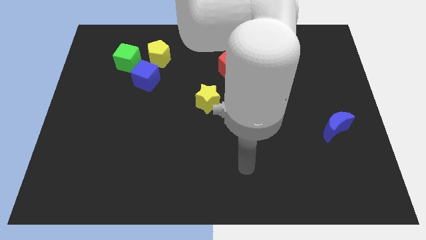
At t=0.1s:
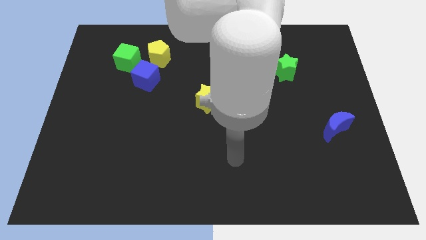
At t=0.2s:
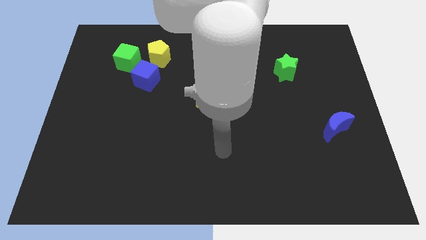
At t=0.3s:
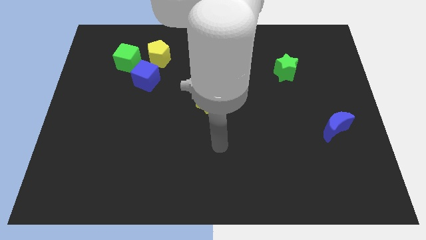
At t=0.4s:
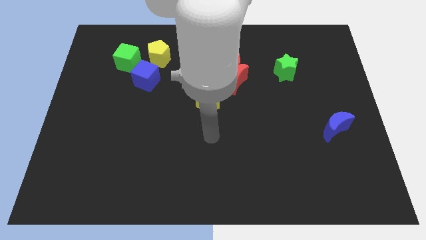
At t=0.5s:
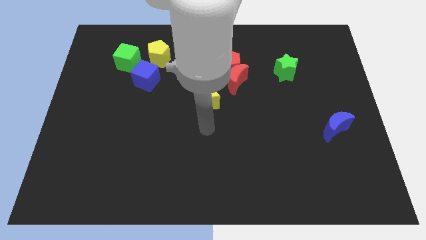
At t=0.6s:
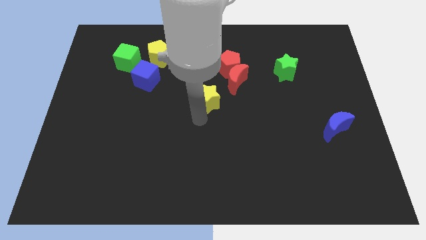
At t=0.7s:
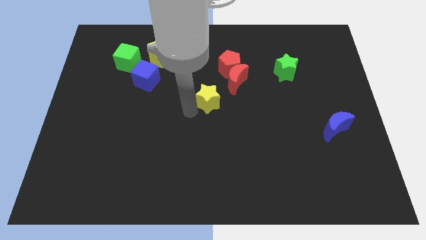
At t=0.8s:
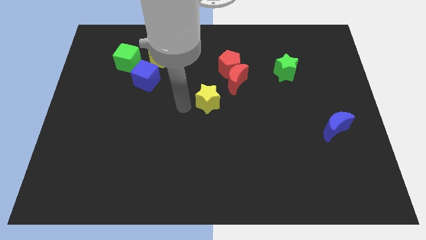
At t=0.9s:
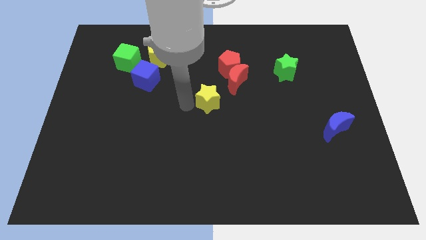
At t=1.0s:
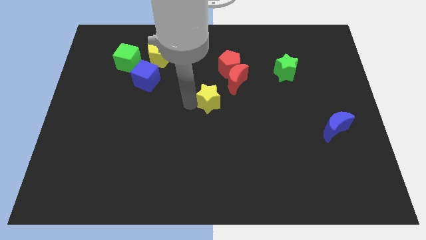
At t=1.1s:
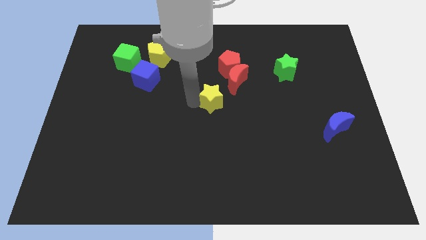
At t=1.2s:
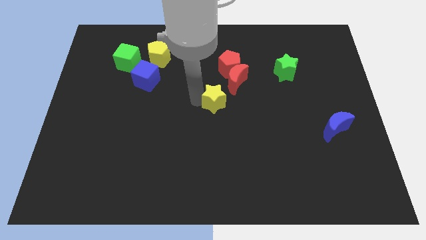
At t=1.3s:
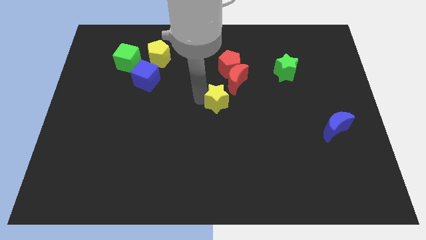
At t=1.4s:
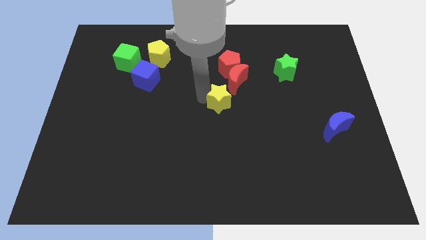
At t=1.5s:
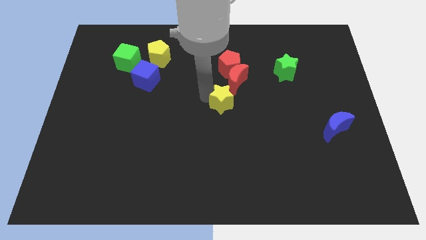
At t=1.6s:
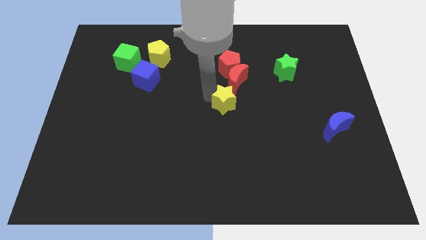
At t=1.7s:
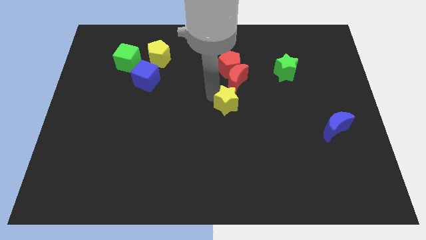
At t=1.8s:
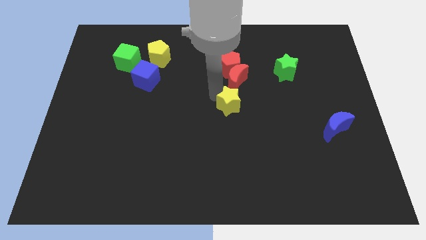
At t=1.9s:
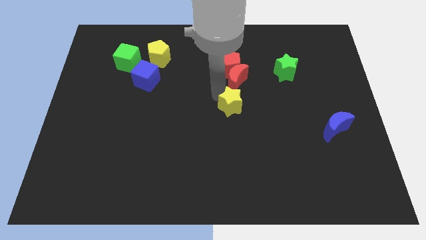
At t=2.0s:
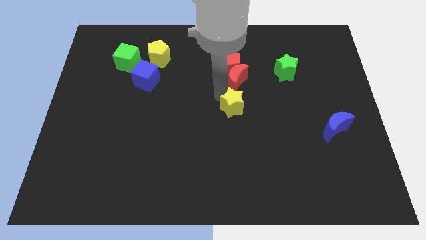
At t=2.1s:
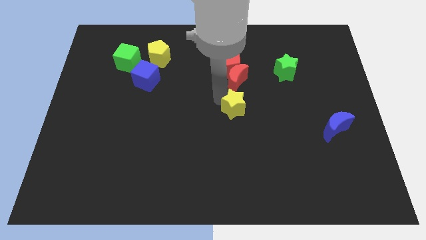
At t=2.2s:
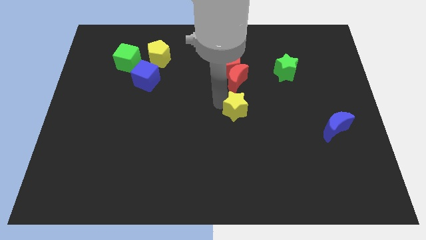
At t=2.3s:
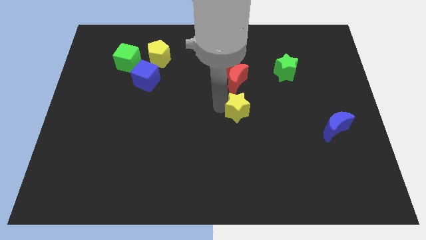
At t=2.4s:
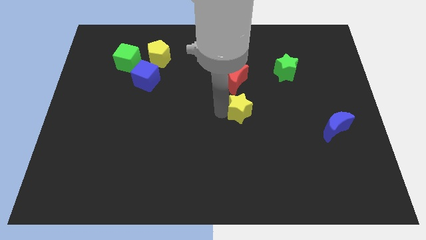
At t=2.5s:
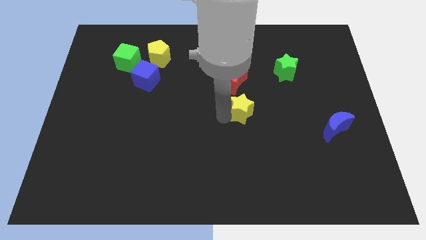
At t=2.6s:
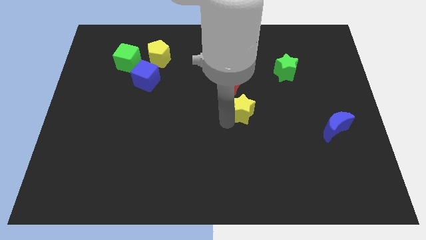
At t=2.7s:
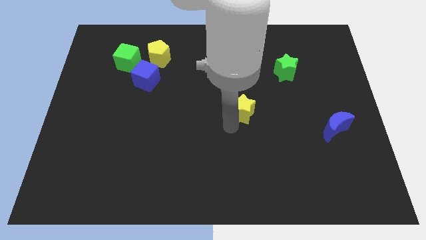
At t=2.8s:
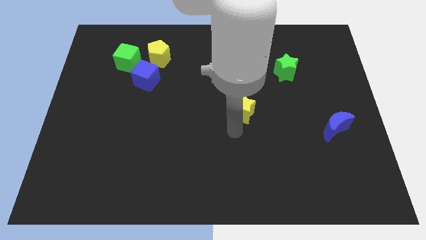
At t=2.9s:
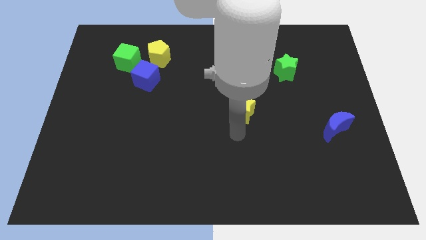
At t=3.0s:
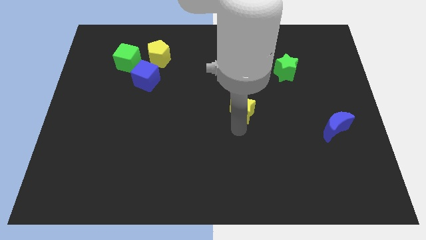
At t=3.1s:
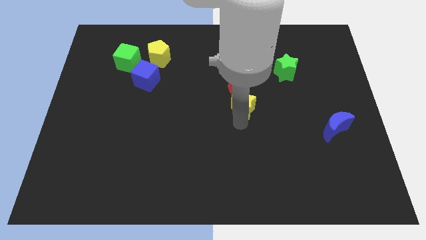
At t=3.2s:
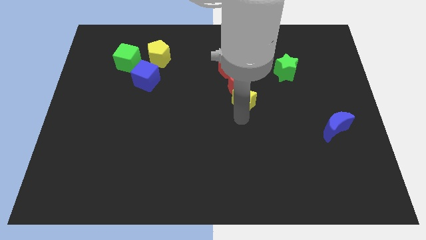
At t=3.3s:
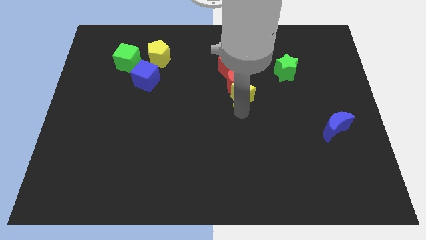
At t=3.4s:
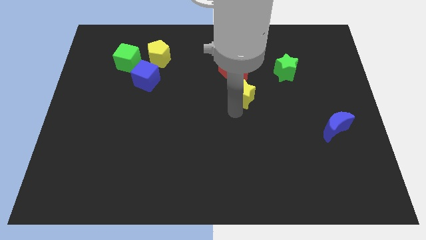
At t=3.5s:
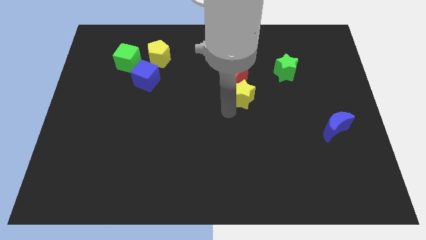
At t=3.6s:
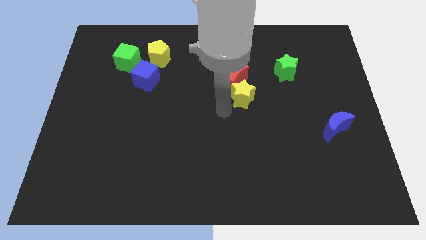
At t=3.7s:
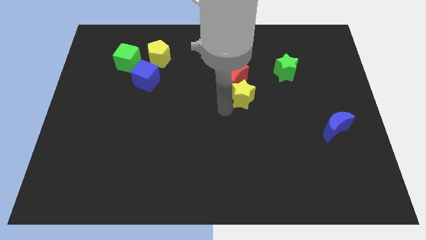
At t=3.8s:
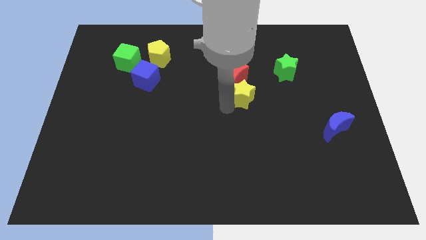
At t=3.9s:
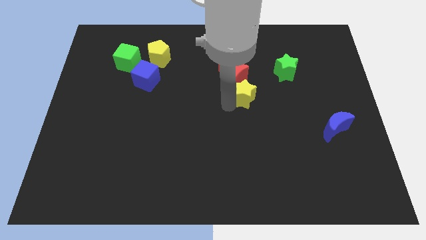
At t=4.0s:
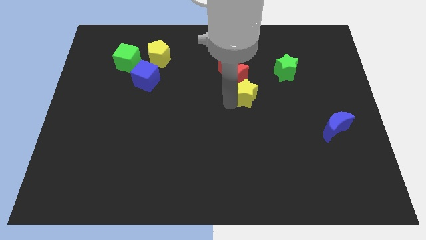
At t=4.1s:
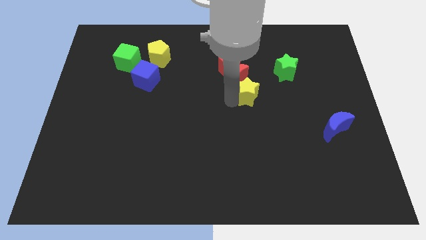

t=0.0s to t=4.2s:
move the yellow star a bit upwards and right

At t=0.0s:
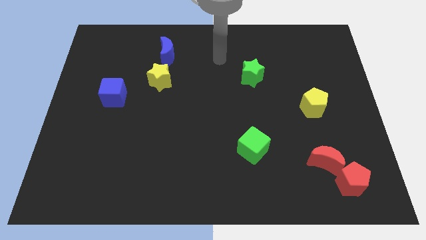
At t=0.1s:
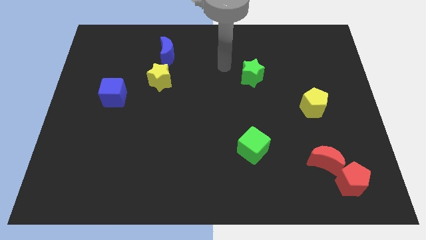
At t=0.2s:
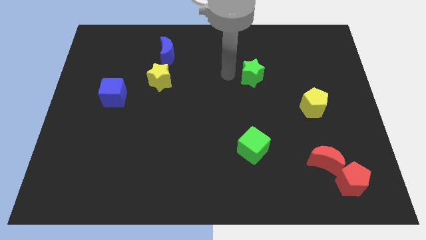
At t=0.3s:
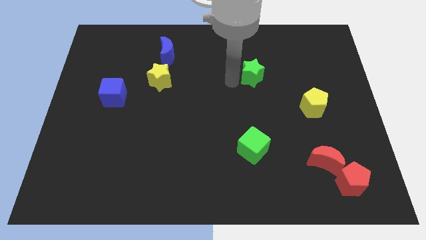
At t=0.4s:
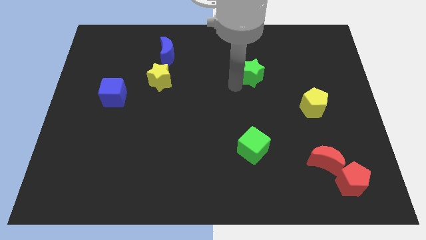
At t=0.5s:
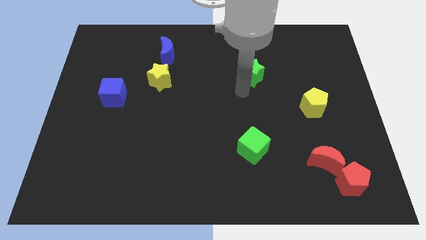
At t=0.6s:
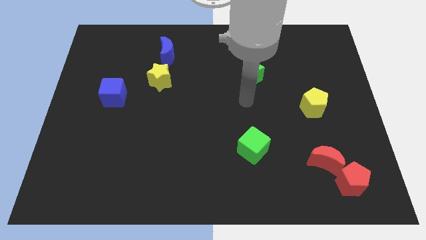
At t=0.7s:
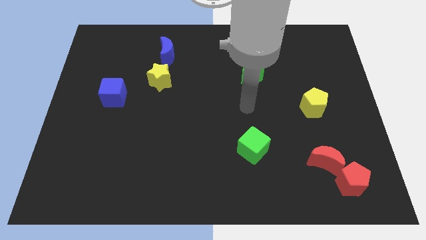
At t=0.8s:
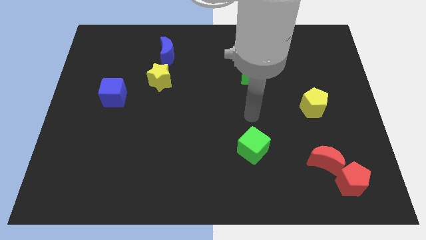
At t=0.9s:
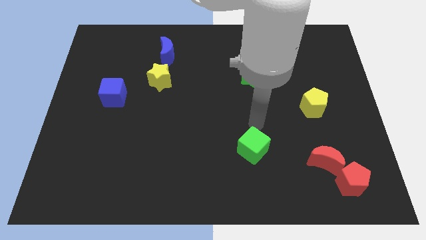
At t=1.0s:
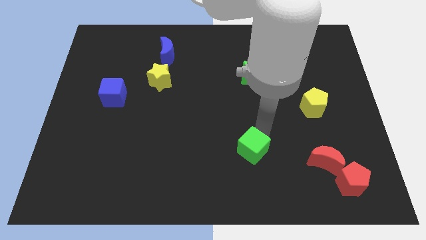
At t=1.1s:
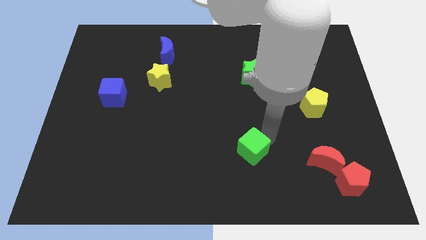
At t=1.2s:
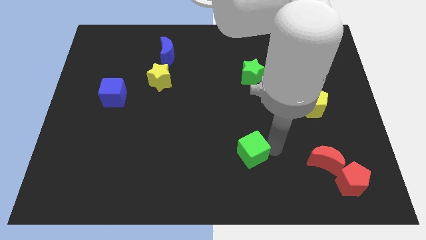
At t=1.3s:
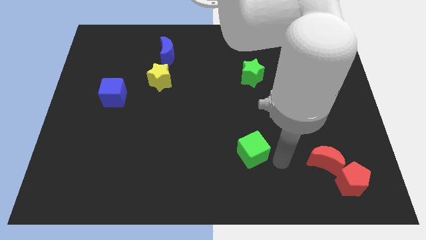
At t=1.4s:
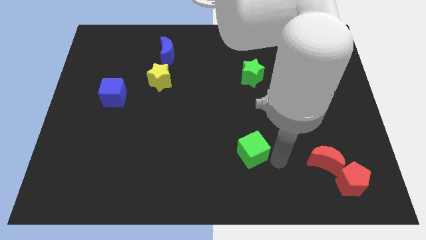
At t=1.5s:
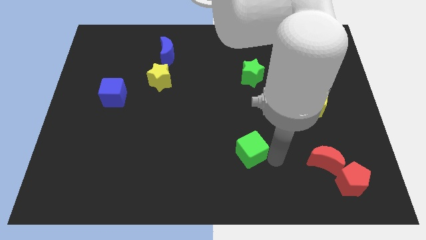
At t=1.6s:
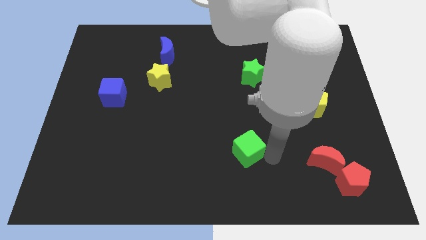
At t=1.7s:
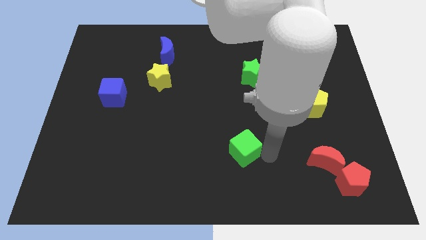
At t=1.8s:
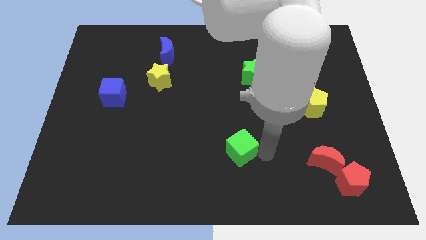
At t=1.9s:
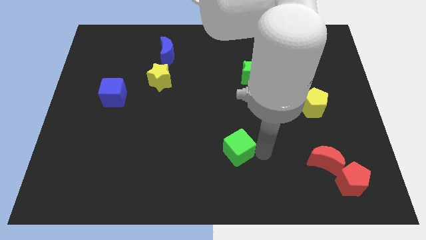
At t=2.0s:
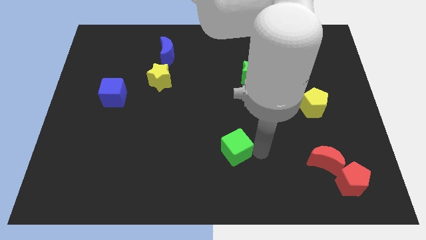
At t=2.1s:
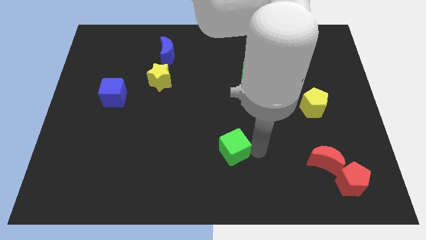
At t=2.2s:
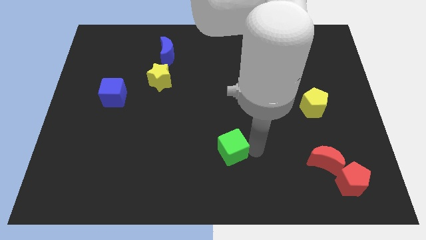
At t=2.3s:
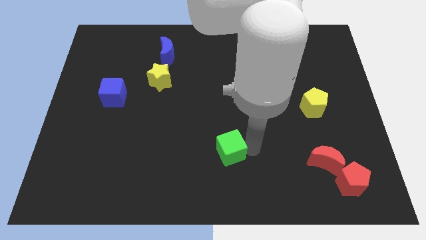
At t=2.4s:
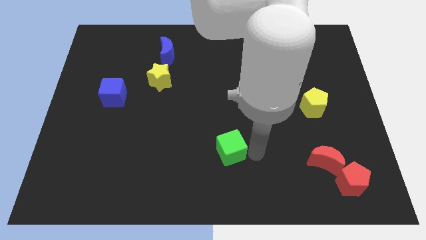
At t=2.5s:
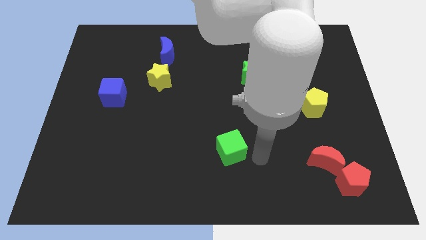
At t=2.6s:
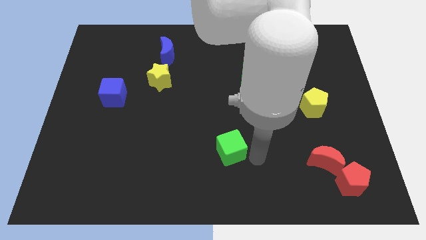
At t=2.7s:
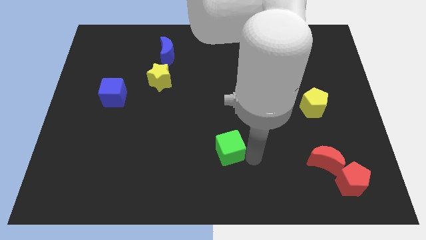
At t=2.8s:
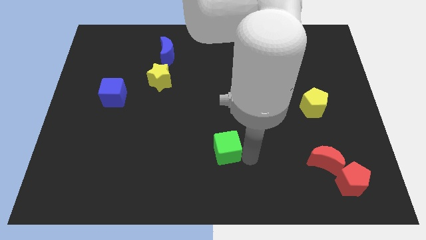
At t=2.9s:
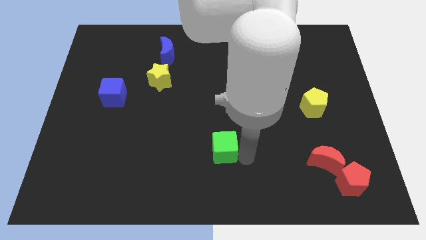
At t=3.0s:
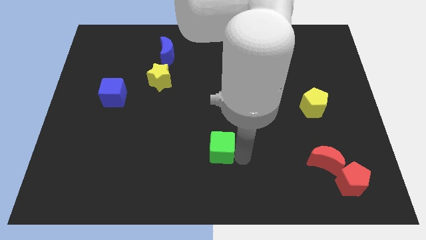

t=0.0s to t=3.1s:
slide the green cube a little bit left

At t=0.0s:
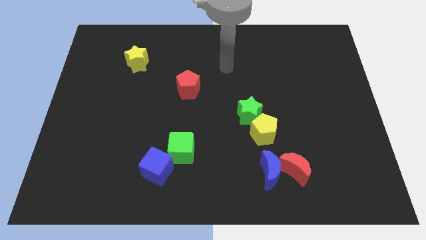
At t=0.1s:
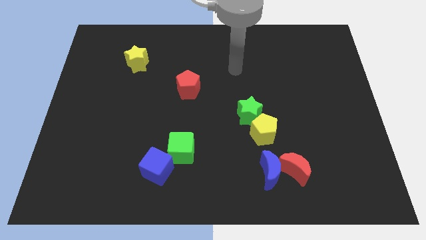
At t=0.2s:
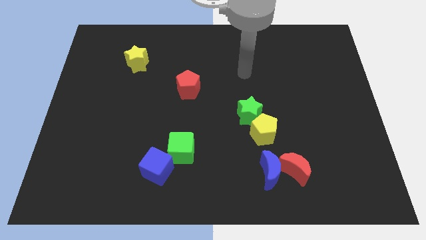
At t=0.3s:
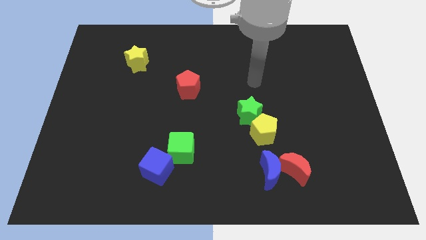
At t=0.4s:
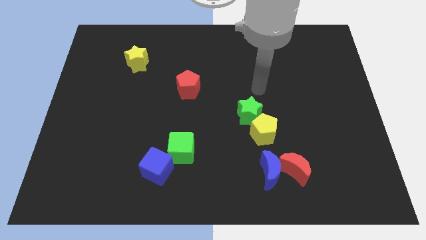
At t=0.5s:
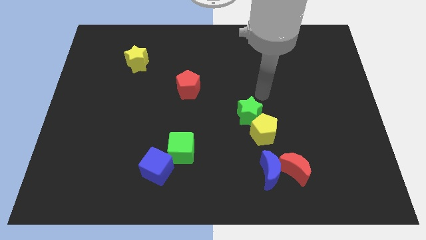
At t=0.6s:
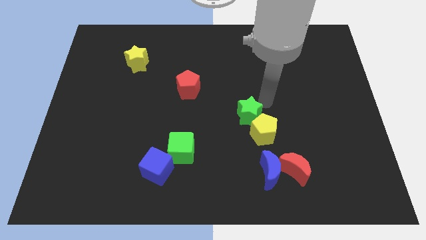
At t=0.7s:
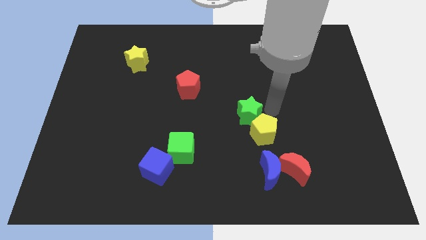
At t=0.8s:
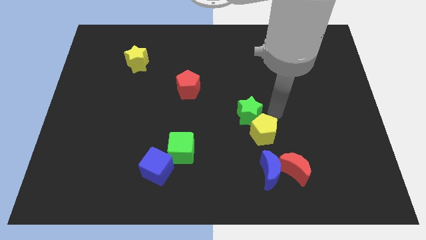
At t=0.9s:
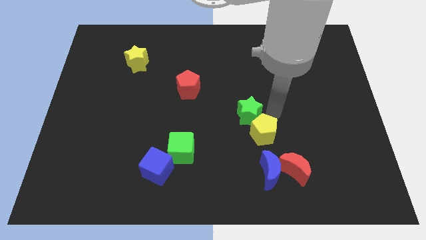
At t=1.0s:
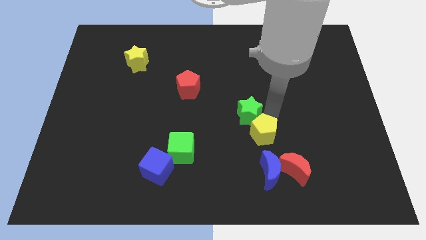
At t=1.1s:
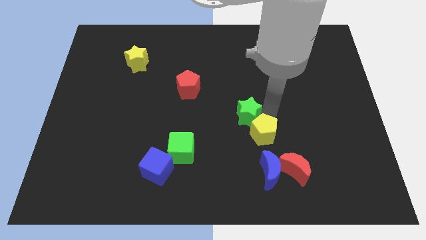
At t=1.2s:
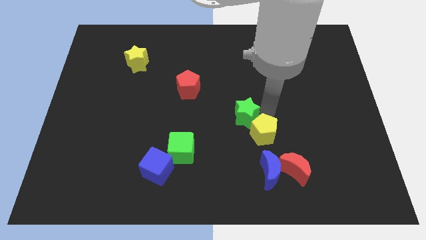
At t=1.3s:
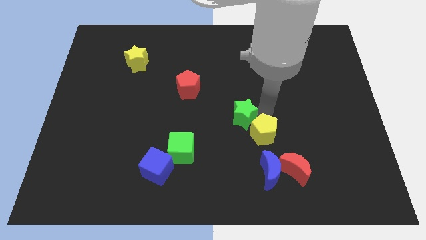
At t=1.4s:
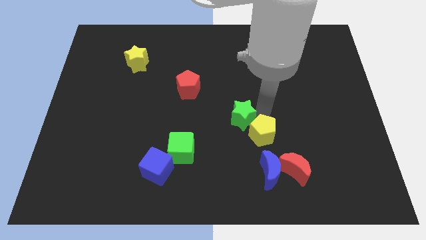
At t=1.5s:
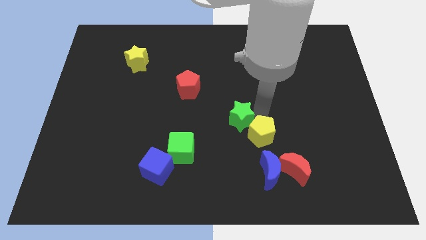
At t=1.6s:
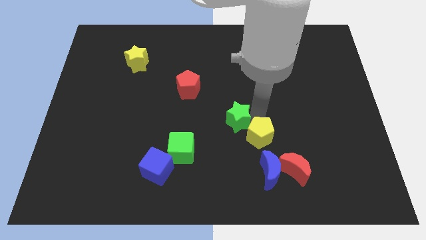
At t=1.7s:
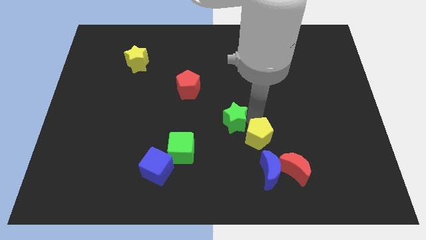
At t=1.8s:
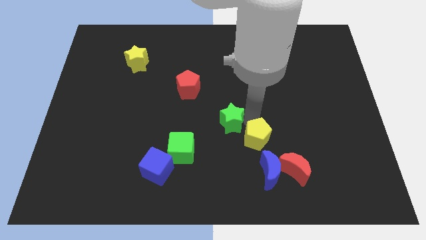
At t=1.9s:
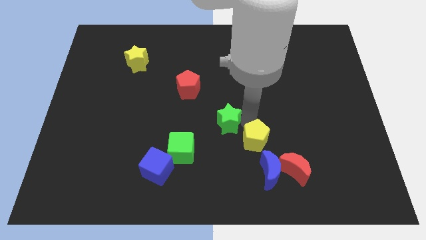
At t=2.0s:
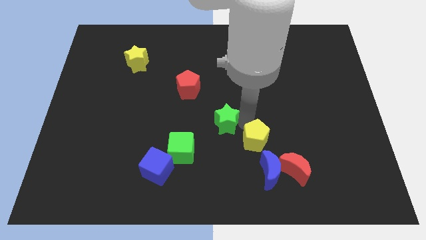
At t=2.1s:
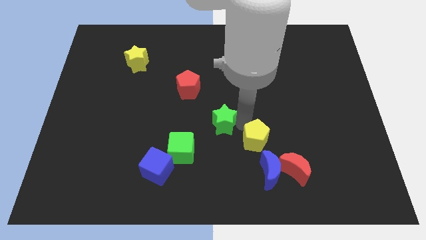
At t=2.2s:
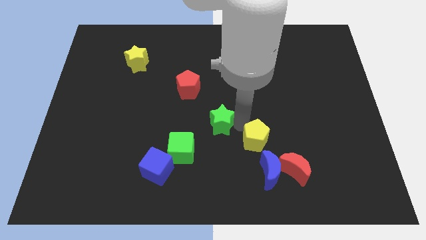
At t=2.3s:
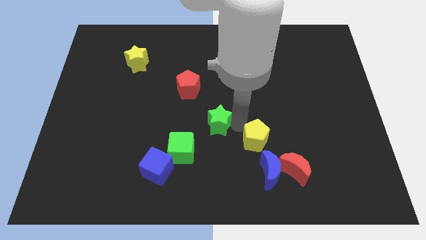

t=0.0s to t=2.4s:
slightly slide the green star to the left
